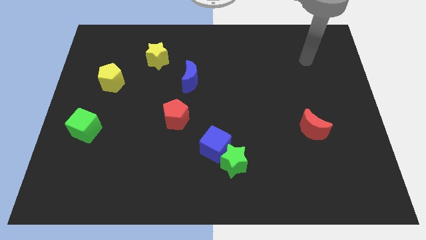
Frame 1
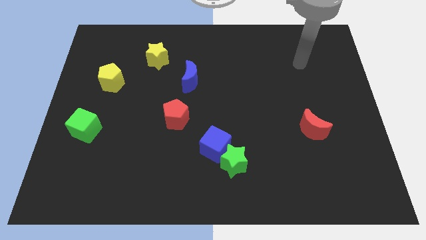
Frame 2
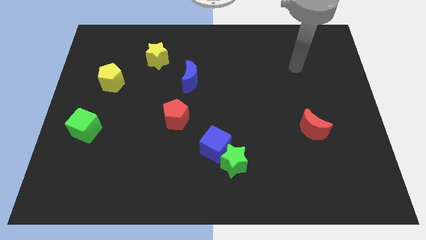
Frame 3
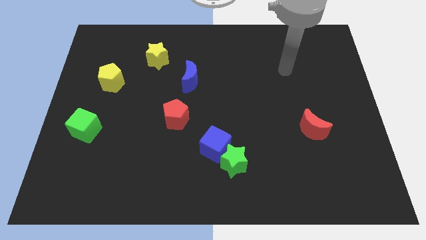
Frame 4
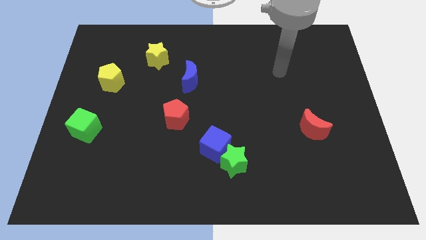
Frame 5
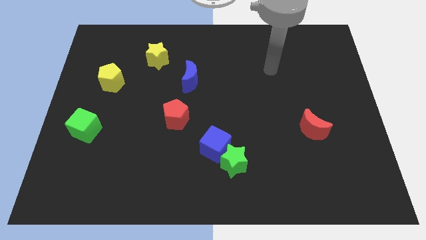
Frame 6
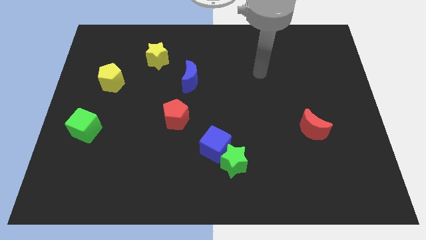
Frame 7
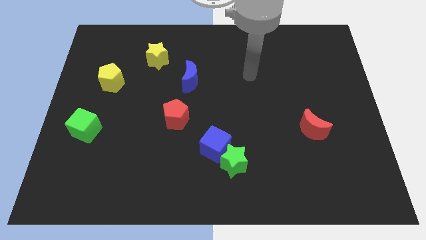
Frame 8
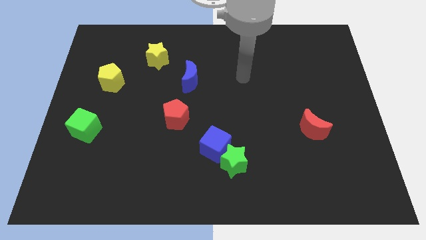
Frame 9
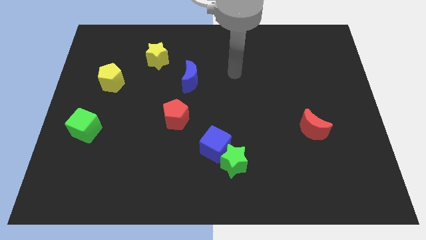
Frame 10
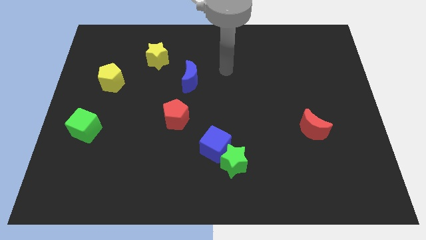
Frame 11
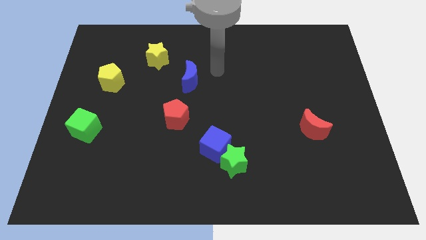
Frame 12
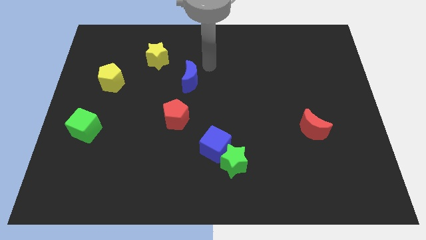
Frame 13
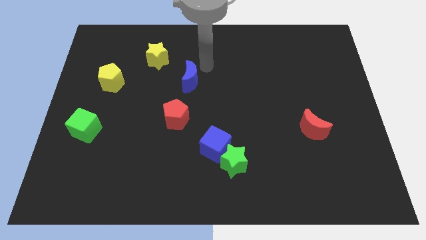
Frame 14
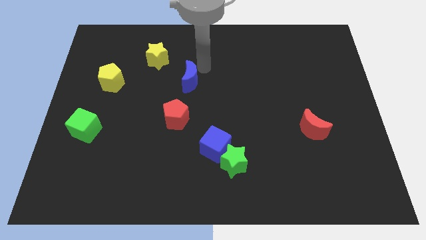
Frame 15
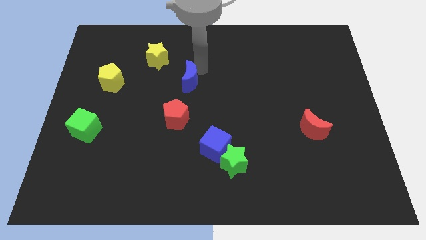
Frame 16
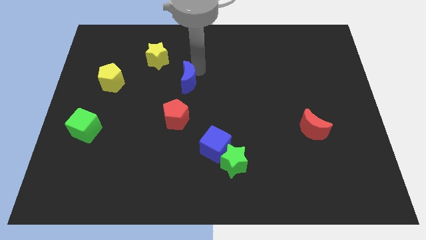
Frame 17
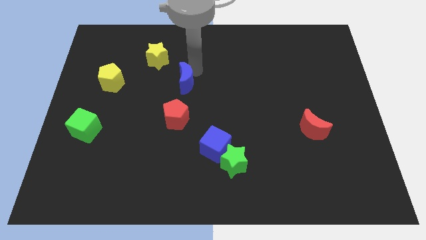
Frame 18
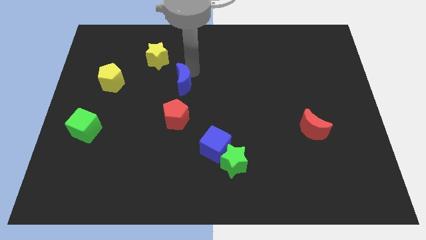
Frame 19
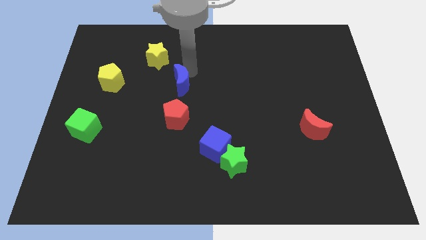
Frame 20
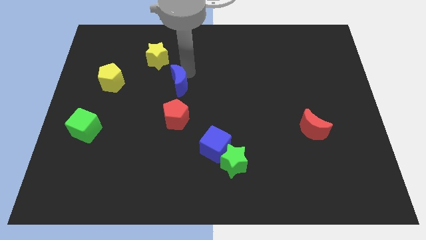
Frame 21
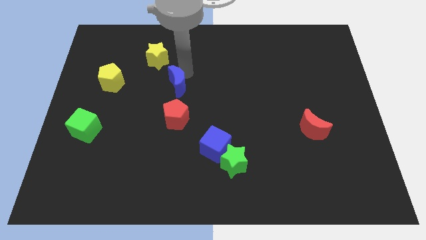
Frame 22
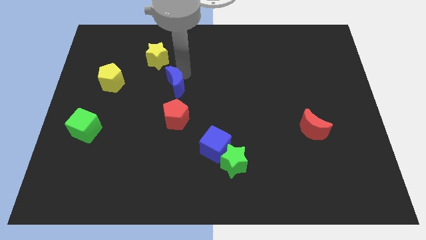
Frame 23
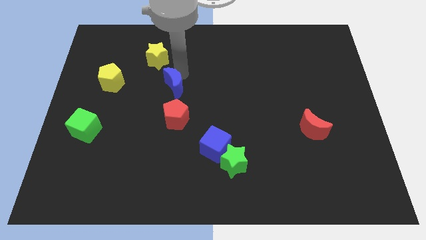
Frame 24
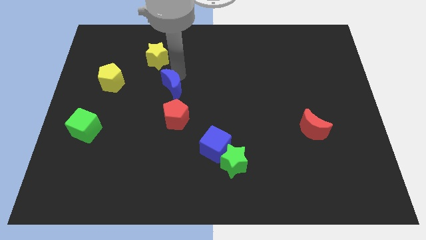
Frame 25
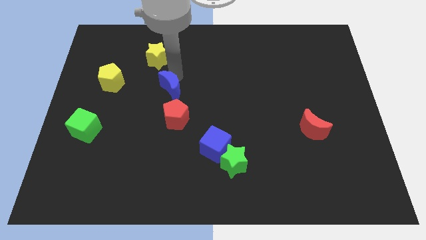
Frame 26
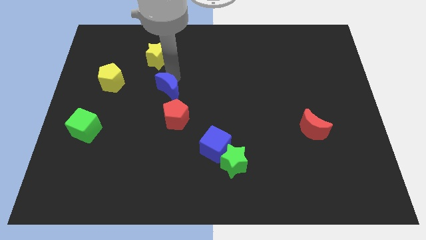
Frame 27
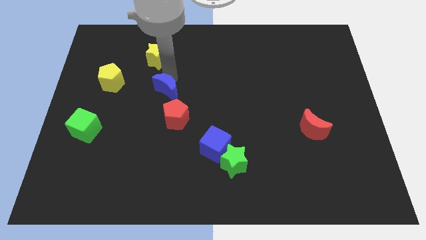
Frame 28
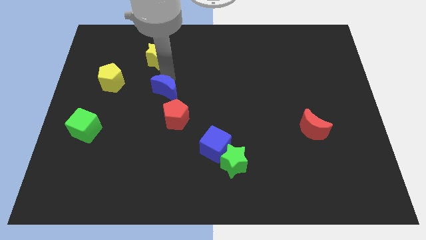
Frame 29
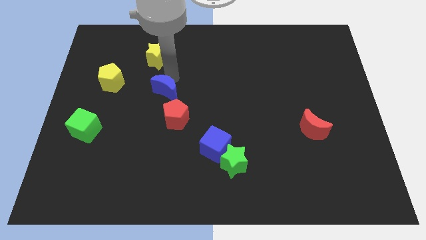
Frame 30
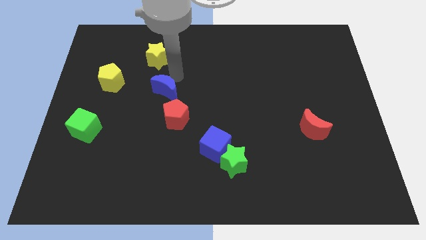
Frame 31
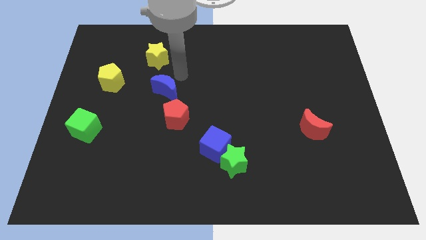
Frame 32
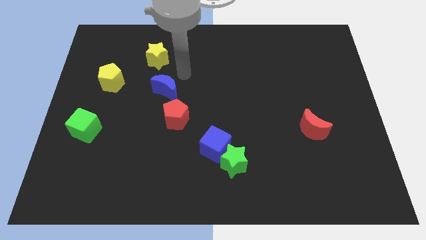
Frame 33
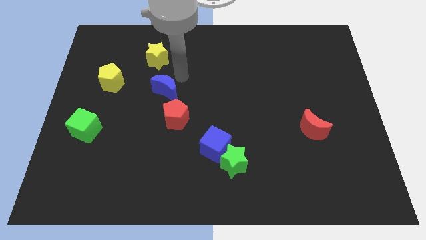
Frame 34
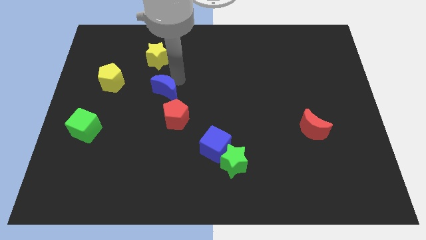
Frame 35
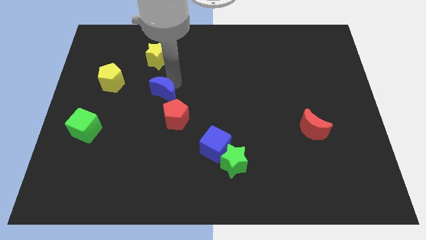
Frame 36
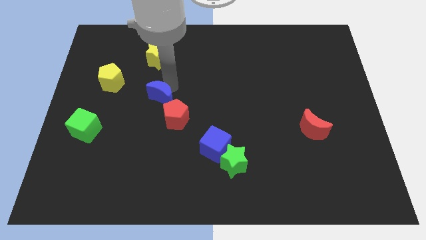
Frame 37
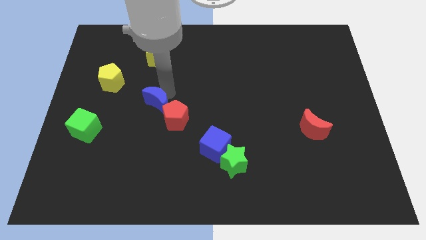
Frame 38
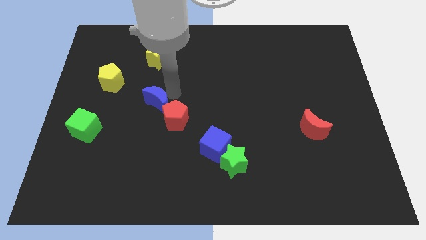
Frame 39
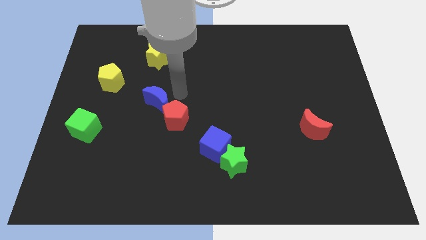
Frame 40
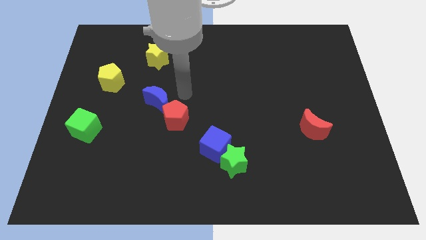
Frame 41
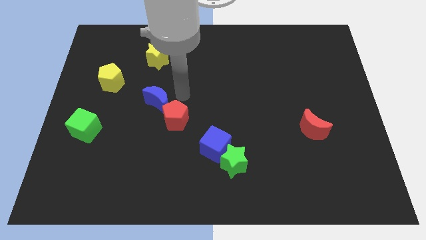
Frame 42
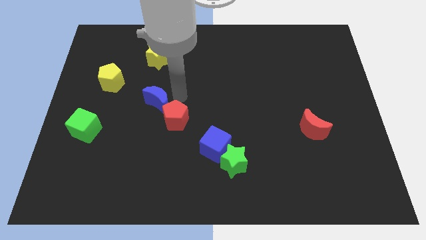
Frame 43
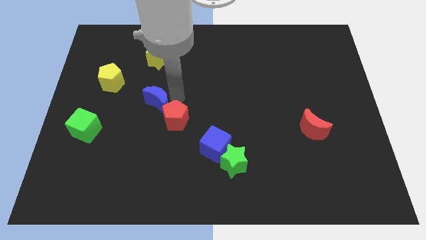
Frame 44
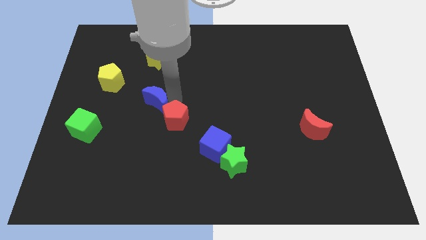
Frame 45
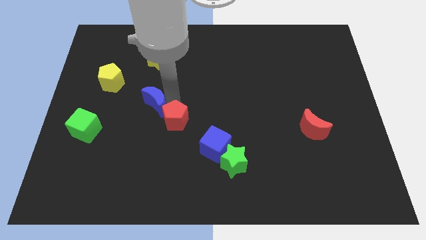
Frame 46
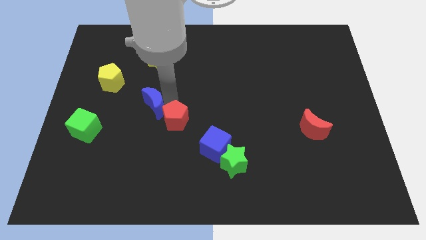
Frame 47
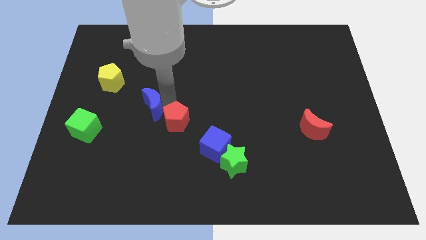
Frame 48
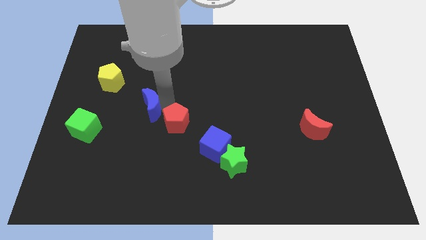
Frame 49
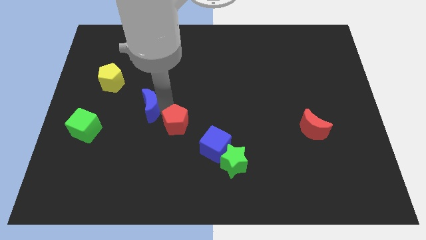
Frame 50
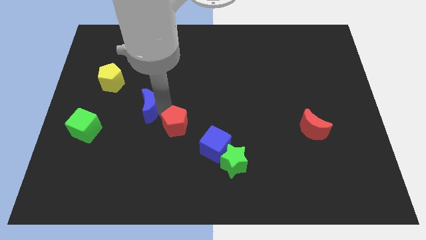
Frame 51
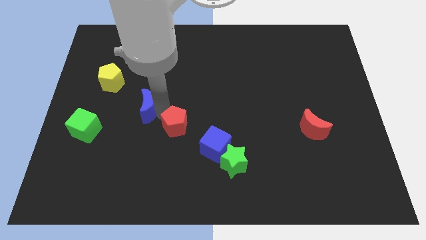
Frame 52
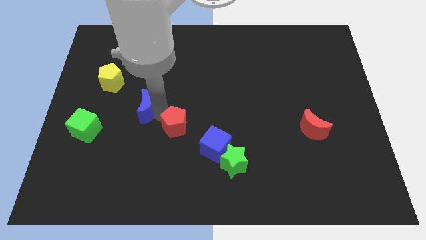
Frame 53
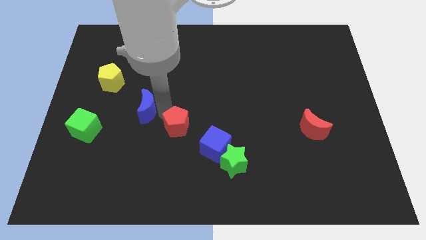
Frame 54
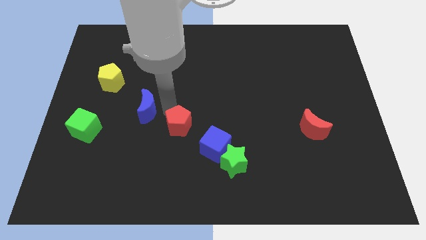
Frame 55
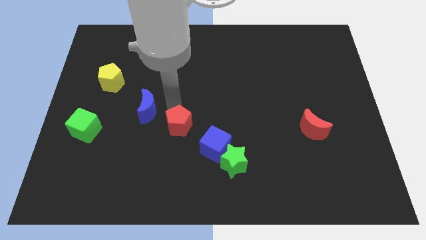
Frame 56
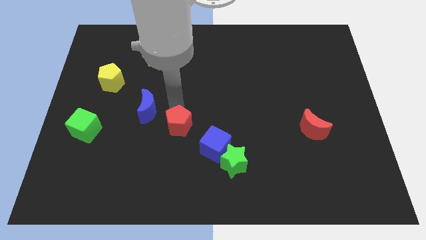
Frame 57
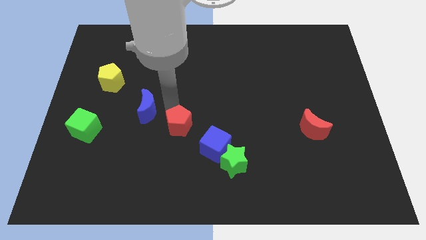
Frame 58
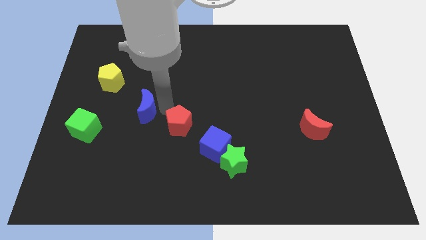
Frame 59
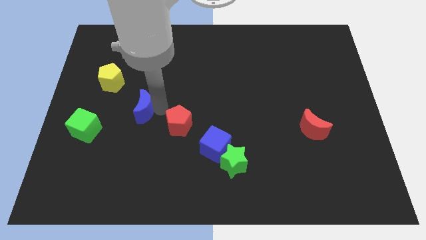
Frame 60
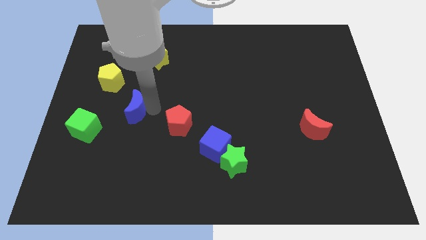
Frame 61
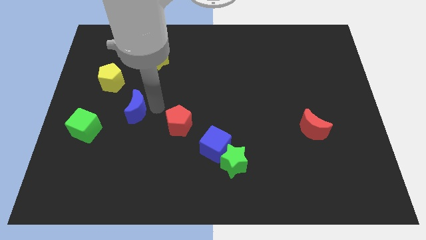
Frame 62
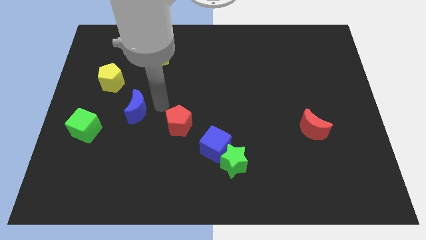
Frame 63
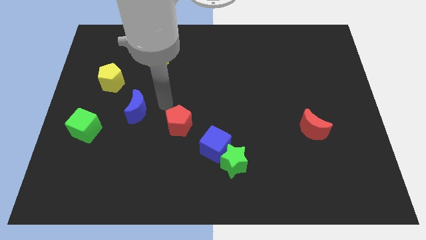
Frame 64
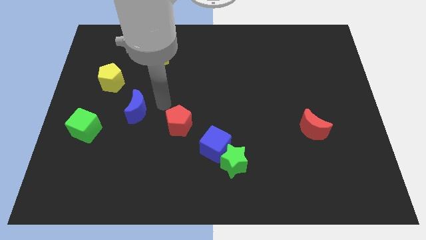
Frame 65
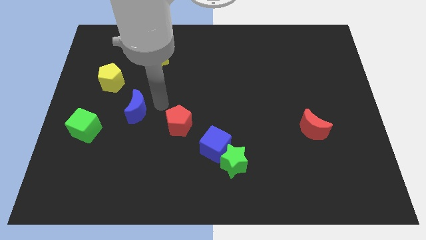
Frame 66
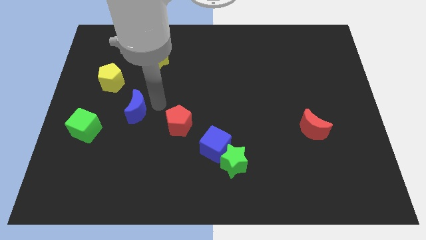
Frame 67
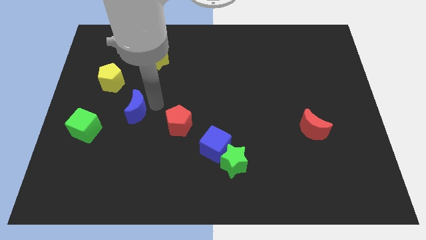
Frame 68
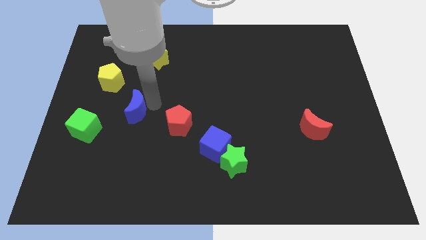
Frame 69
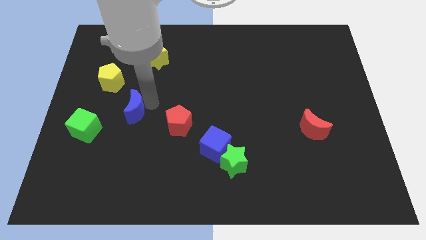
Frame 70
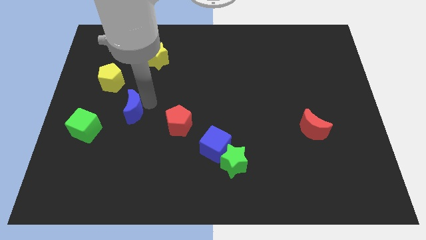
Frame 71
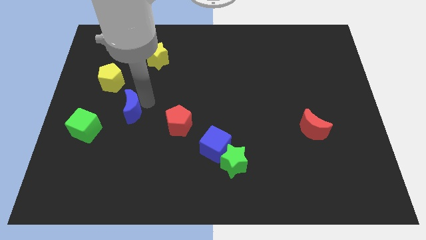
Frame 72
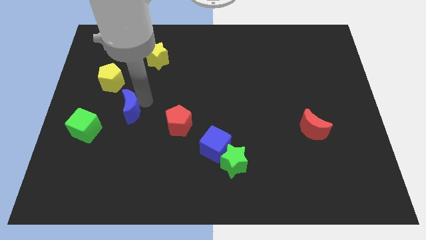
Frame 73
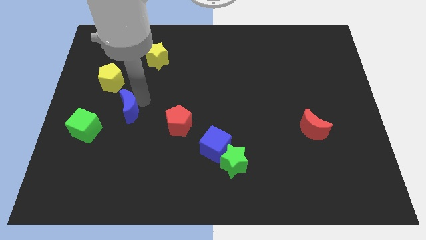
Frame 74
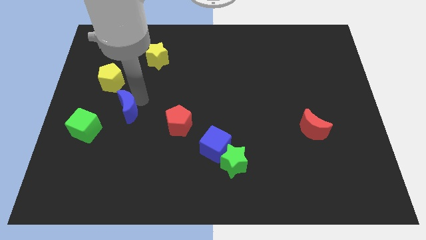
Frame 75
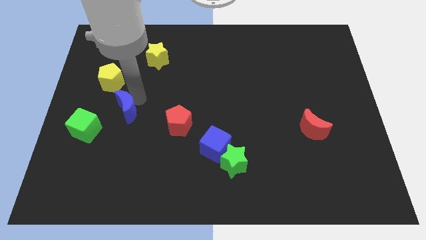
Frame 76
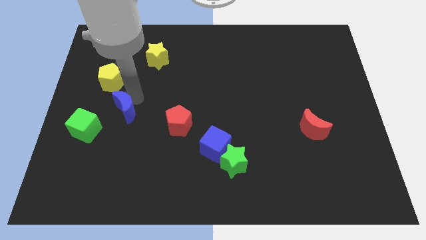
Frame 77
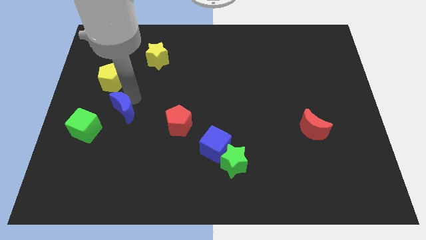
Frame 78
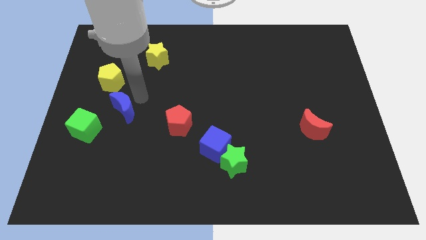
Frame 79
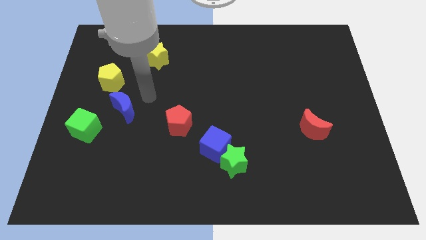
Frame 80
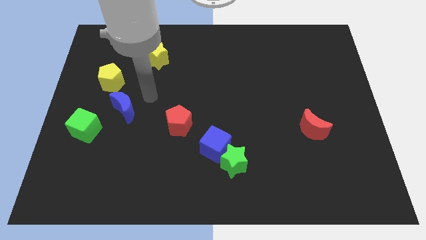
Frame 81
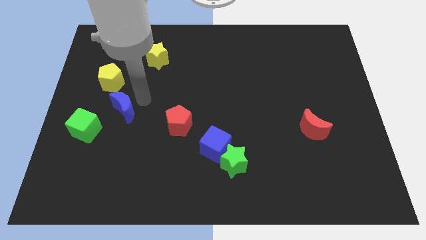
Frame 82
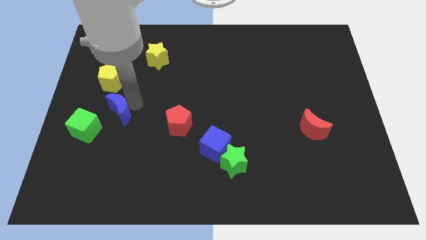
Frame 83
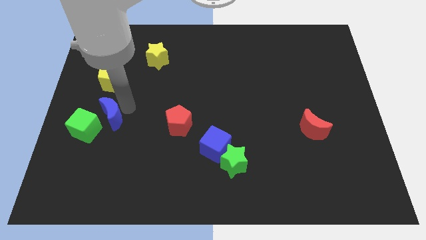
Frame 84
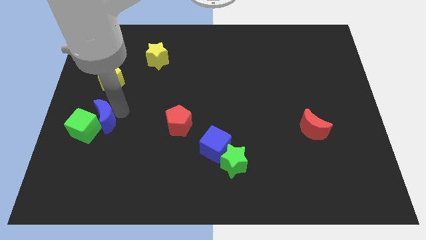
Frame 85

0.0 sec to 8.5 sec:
move the blue moon close to the green cube
